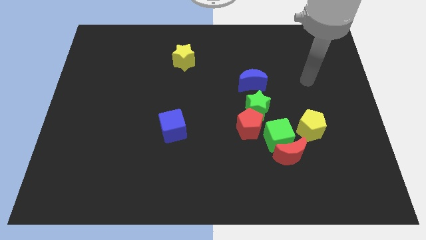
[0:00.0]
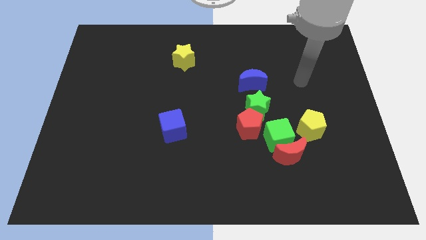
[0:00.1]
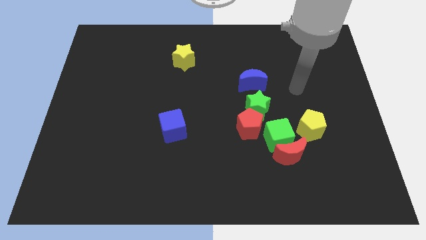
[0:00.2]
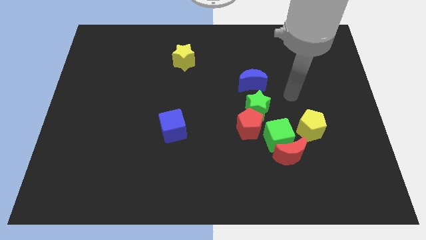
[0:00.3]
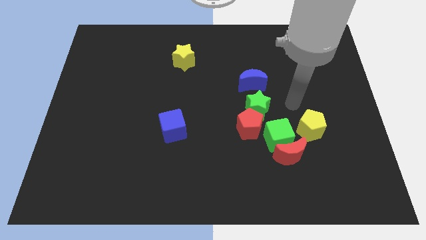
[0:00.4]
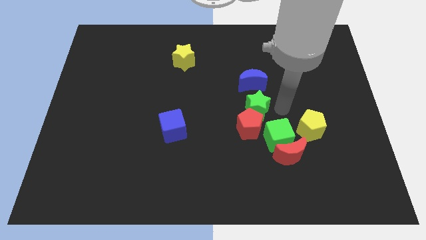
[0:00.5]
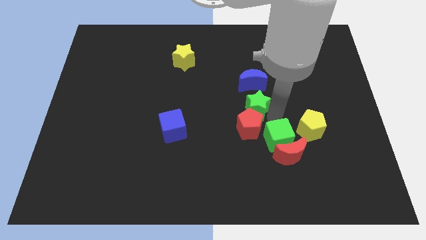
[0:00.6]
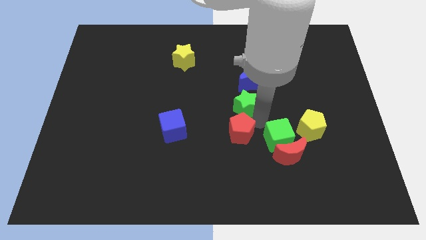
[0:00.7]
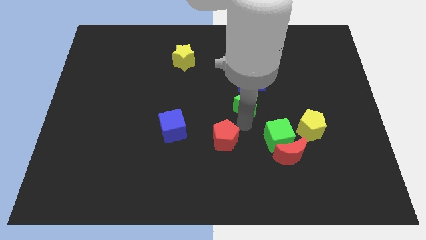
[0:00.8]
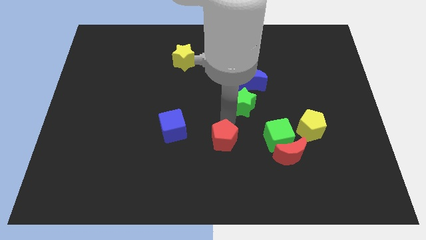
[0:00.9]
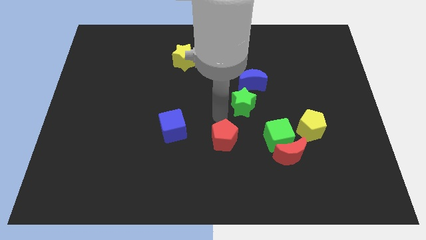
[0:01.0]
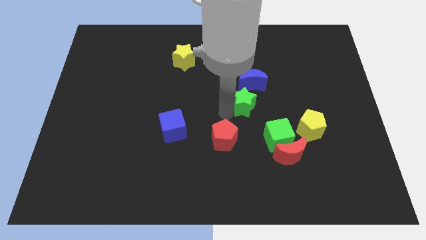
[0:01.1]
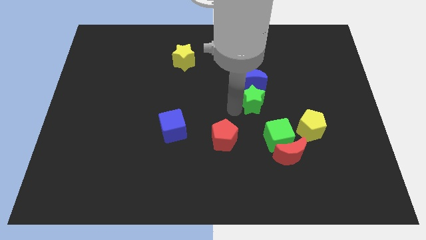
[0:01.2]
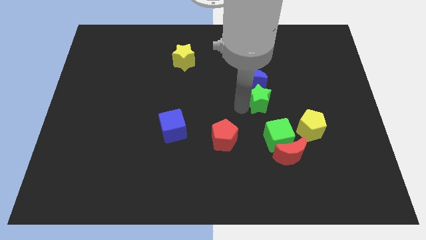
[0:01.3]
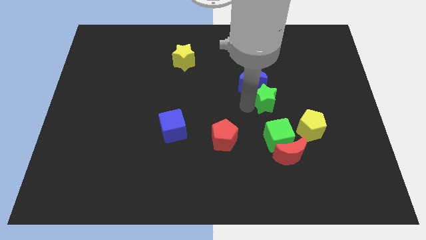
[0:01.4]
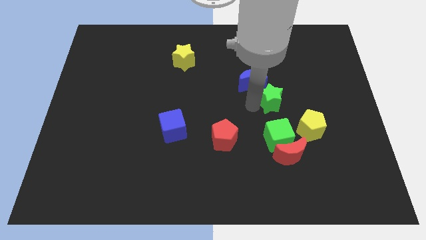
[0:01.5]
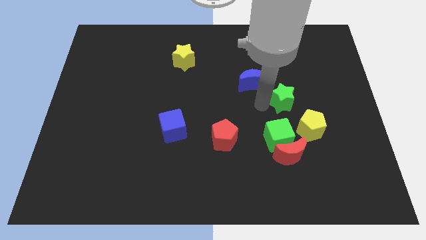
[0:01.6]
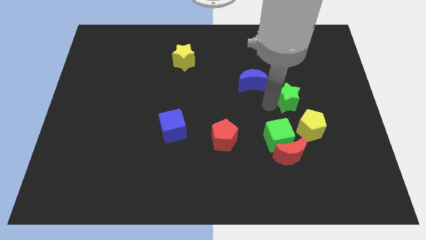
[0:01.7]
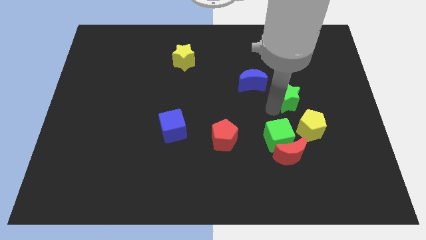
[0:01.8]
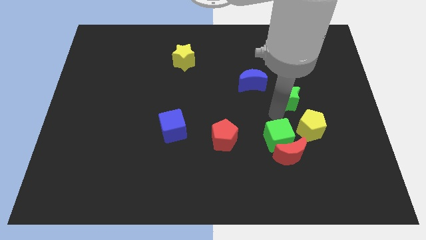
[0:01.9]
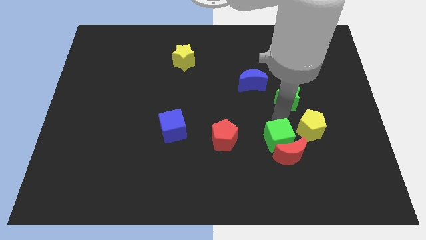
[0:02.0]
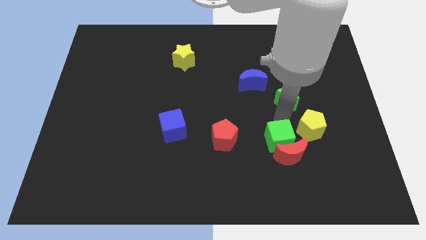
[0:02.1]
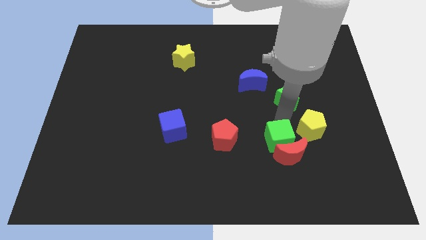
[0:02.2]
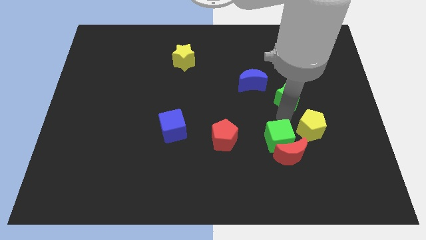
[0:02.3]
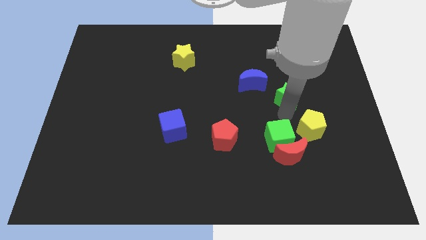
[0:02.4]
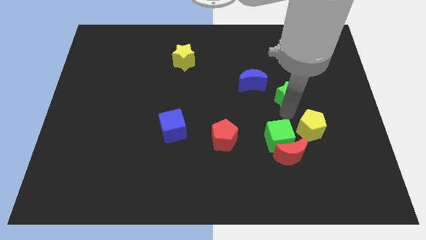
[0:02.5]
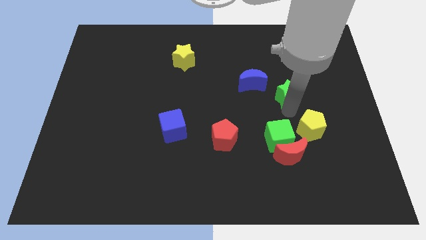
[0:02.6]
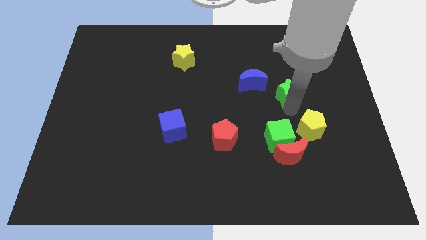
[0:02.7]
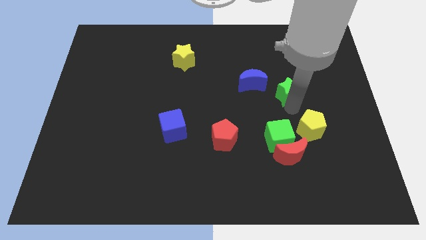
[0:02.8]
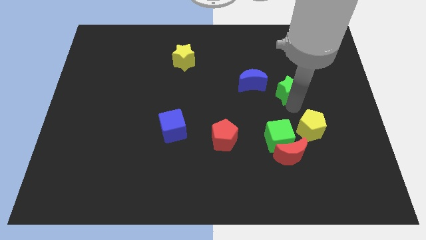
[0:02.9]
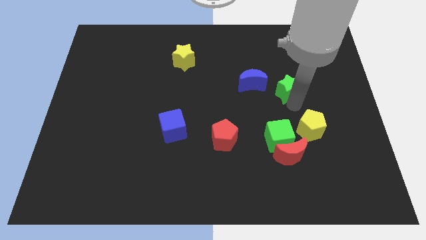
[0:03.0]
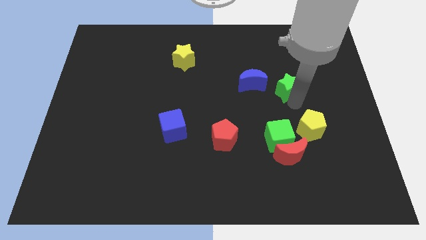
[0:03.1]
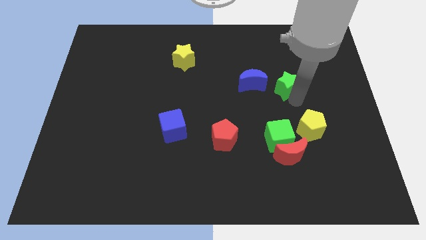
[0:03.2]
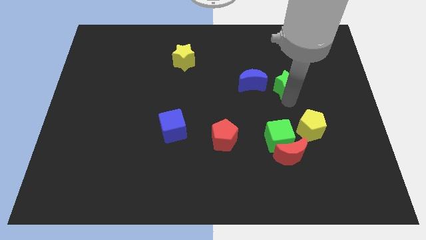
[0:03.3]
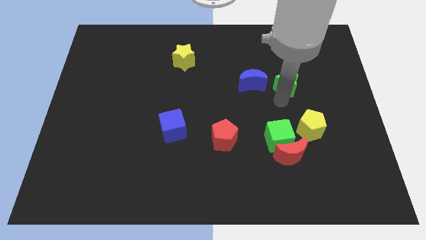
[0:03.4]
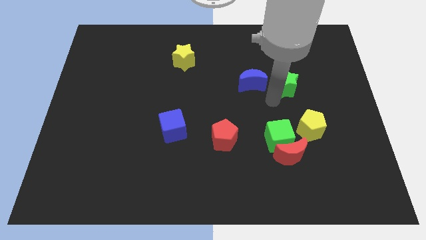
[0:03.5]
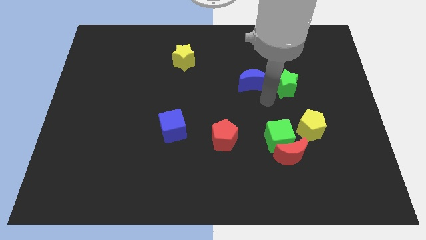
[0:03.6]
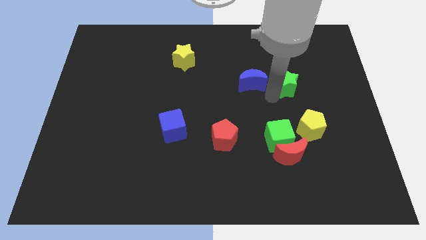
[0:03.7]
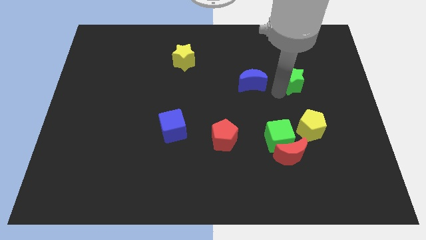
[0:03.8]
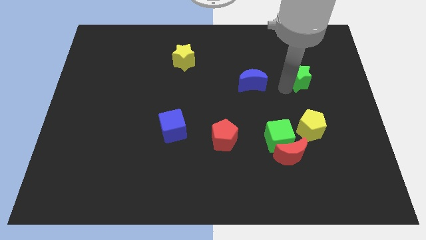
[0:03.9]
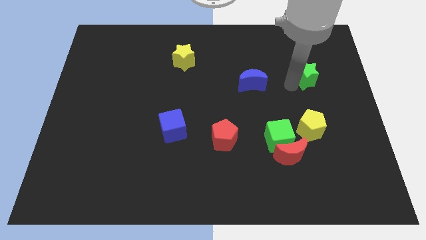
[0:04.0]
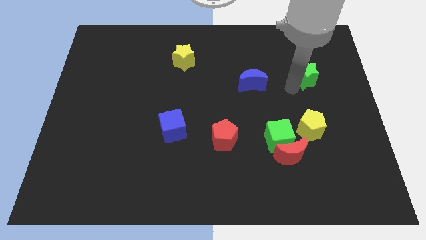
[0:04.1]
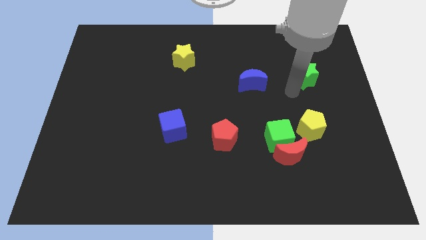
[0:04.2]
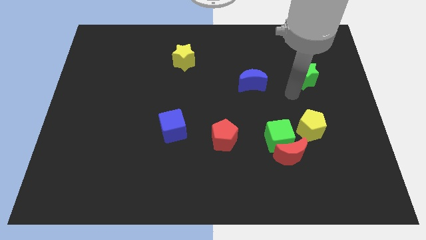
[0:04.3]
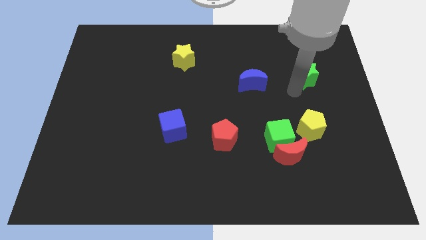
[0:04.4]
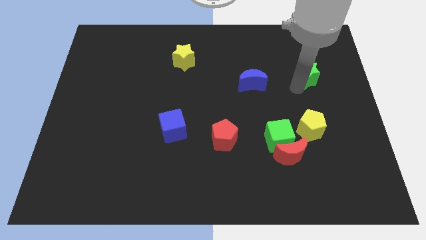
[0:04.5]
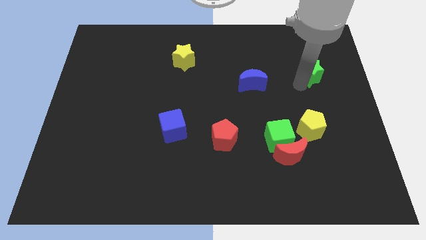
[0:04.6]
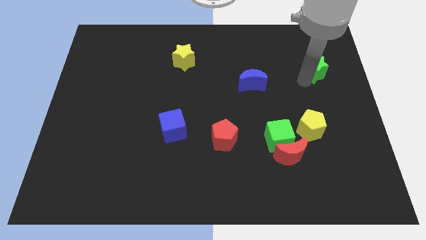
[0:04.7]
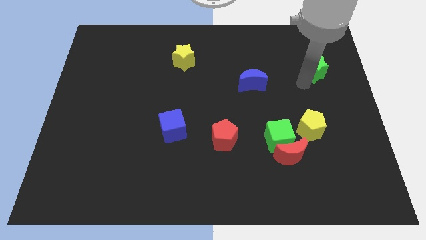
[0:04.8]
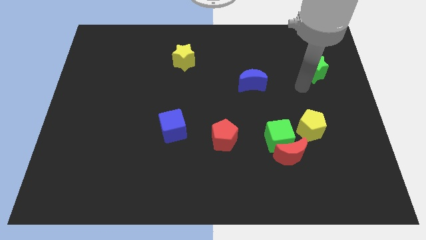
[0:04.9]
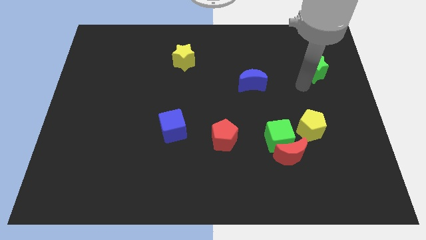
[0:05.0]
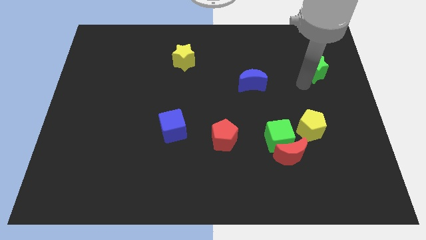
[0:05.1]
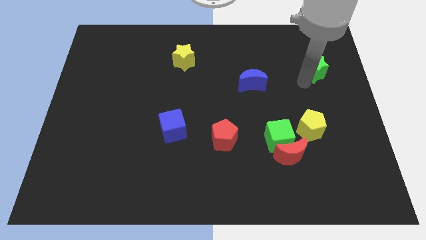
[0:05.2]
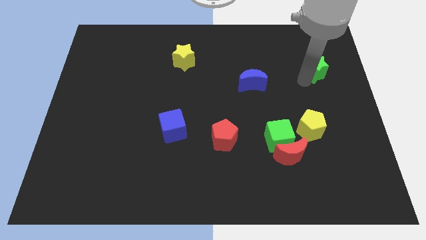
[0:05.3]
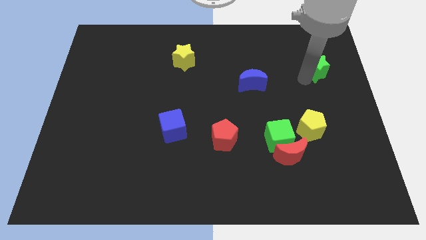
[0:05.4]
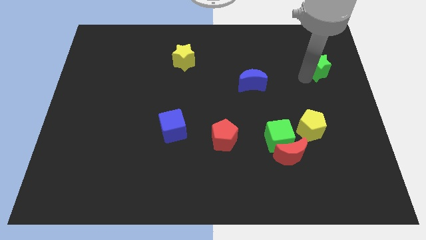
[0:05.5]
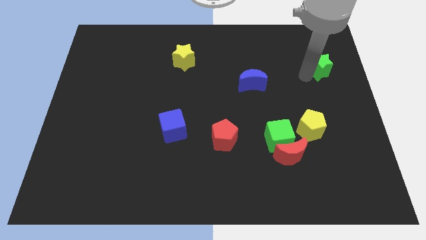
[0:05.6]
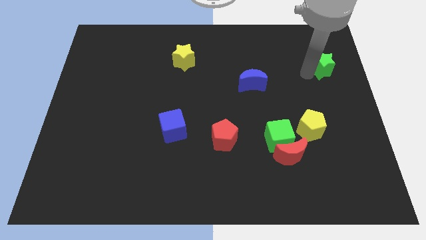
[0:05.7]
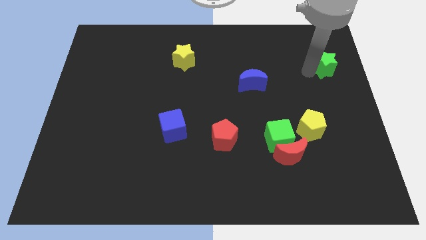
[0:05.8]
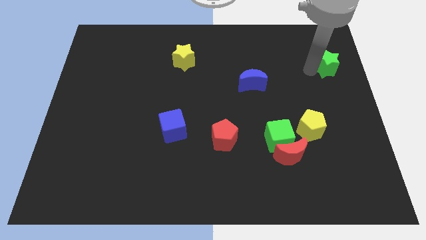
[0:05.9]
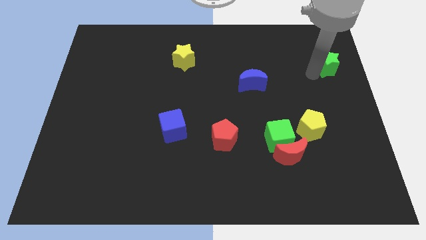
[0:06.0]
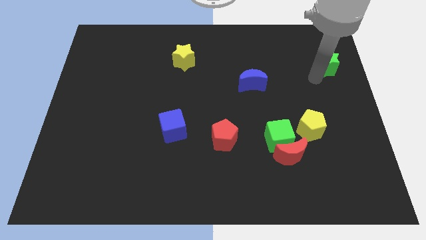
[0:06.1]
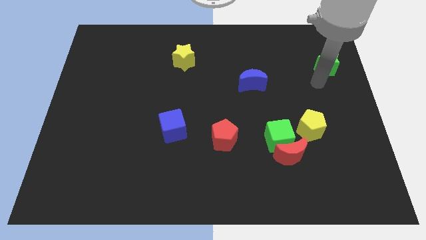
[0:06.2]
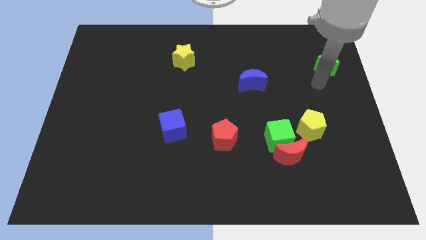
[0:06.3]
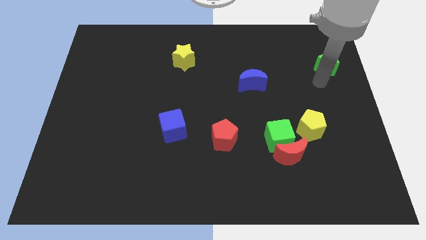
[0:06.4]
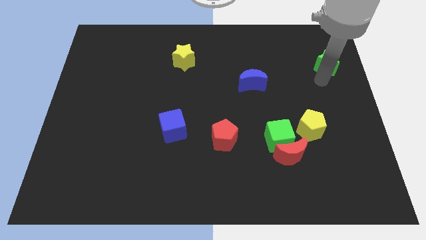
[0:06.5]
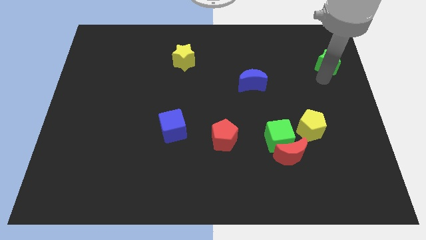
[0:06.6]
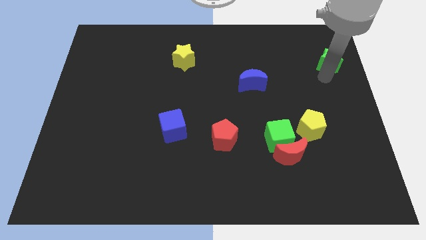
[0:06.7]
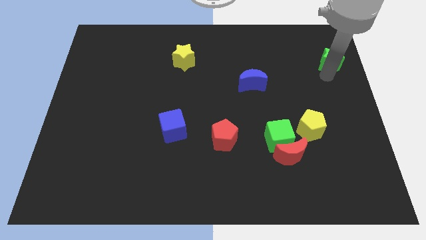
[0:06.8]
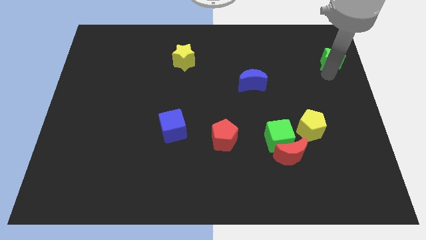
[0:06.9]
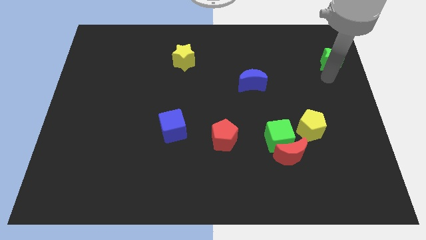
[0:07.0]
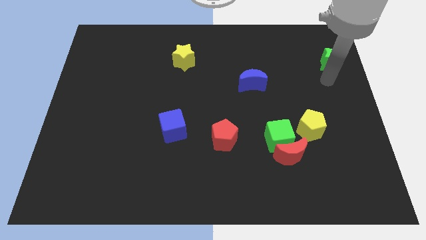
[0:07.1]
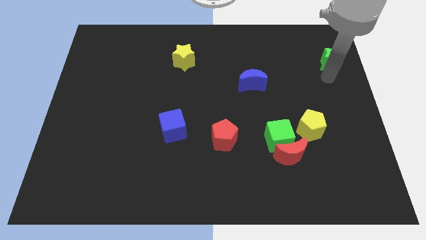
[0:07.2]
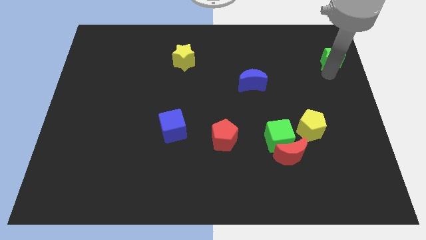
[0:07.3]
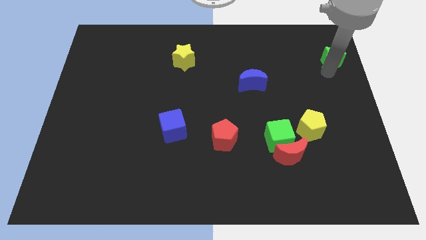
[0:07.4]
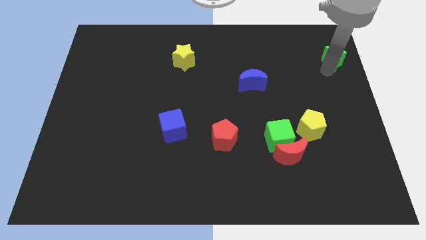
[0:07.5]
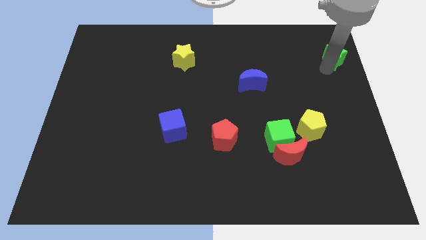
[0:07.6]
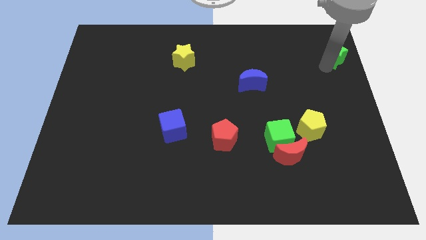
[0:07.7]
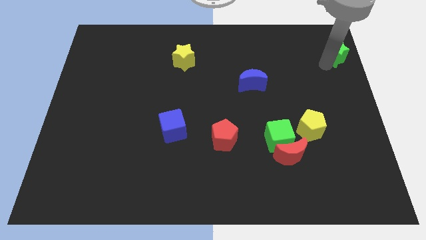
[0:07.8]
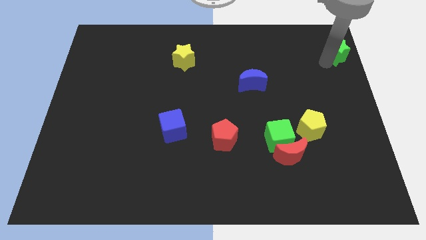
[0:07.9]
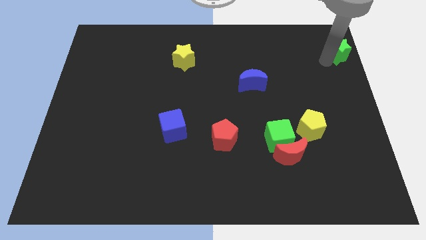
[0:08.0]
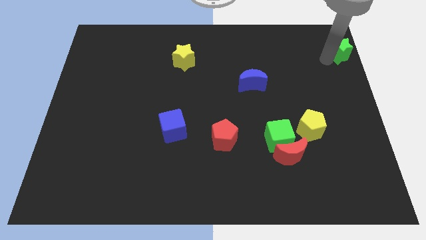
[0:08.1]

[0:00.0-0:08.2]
slide the green star to the upper right corner
